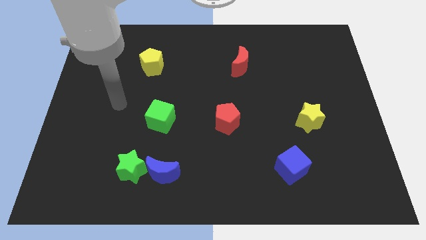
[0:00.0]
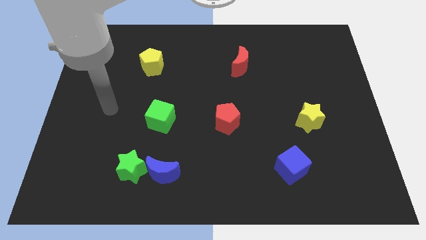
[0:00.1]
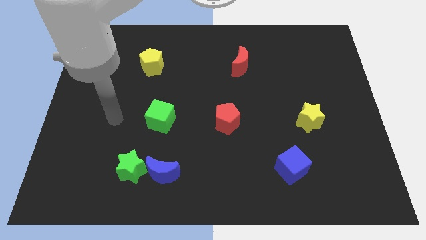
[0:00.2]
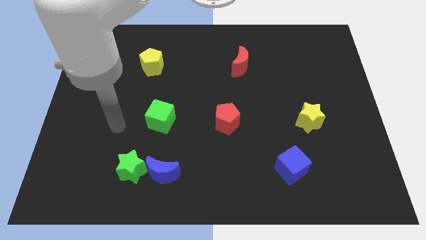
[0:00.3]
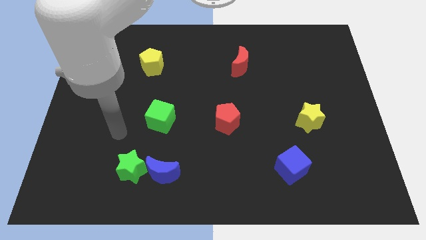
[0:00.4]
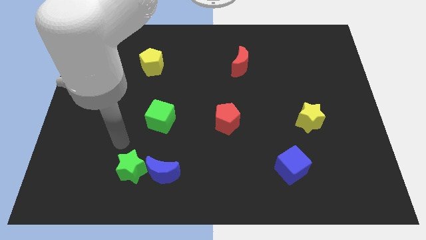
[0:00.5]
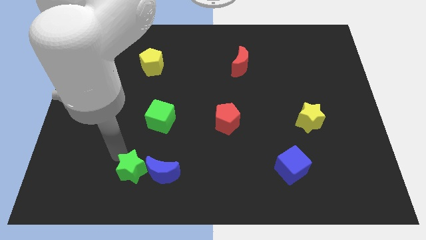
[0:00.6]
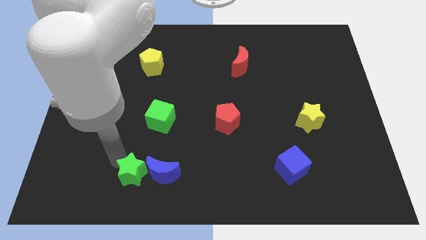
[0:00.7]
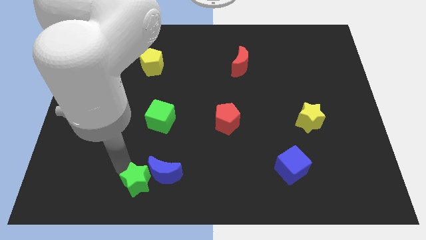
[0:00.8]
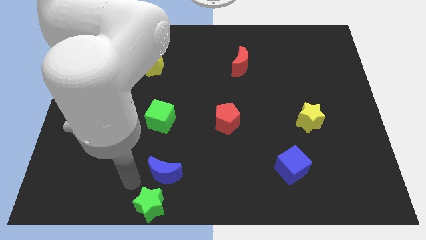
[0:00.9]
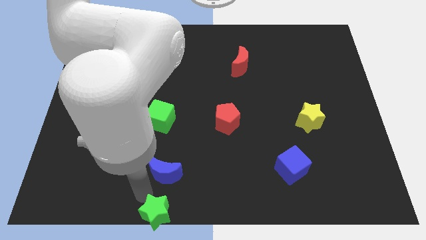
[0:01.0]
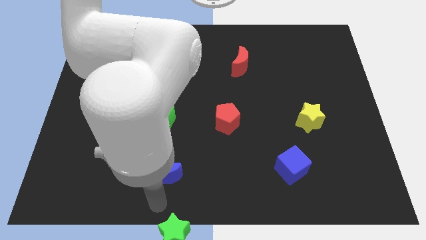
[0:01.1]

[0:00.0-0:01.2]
pull the blue moon apart from the green star

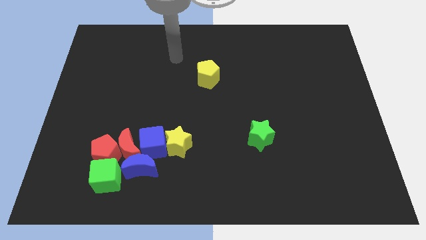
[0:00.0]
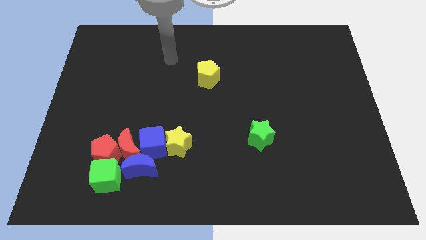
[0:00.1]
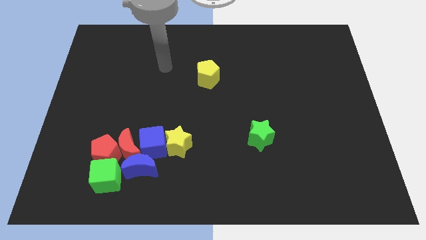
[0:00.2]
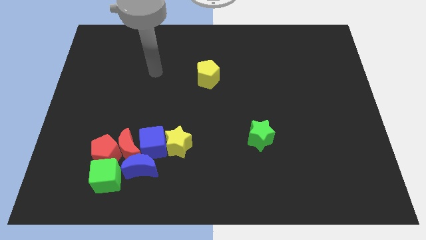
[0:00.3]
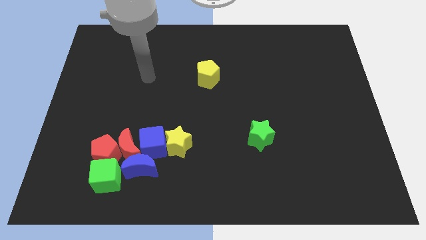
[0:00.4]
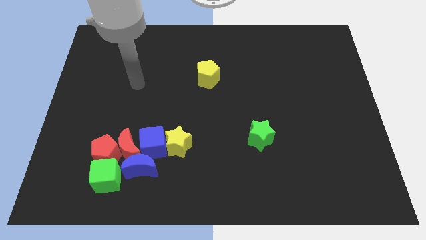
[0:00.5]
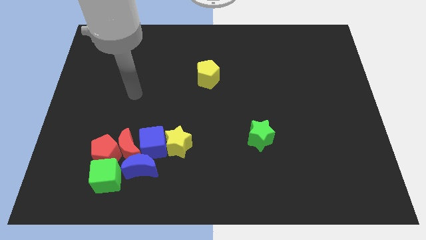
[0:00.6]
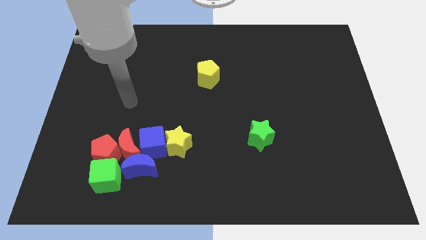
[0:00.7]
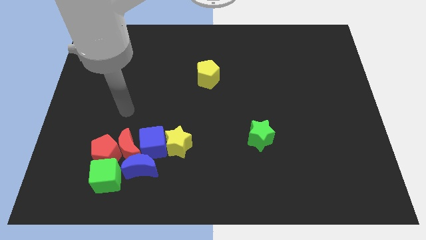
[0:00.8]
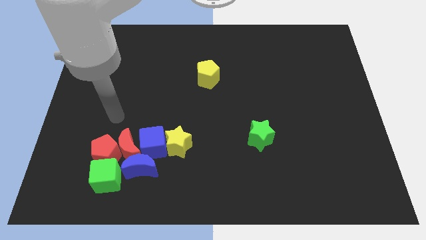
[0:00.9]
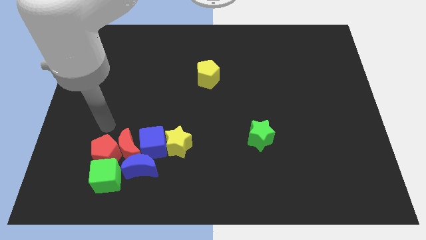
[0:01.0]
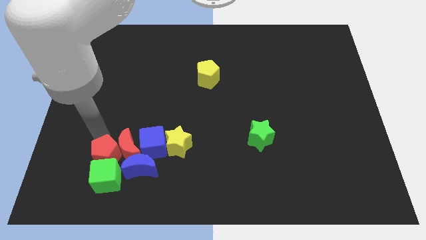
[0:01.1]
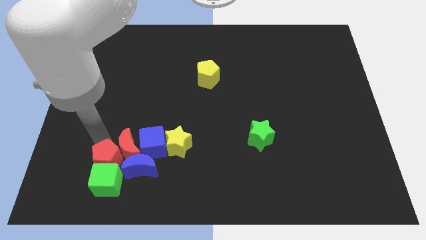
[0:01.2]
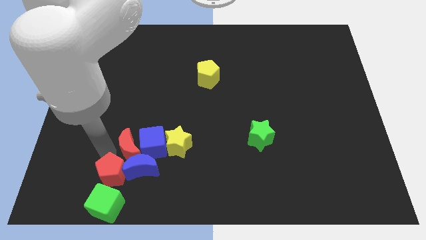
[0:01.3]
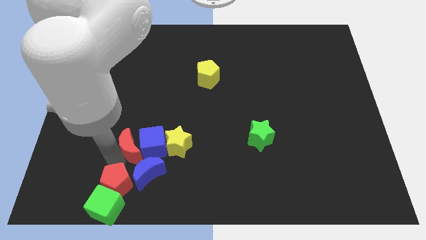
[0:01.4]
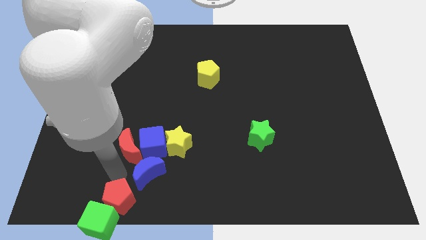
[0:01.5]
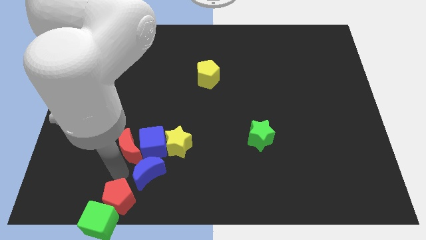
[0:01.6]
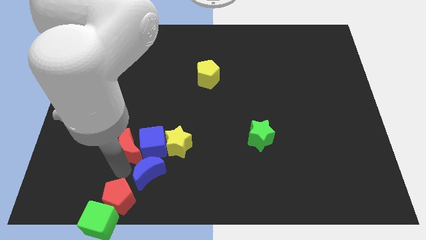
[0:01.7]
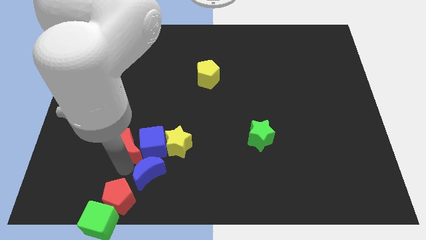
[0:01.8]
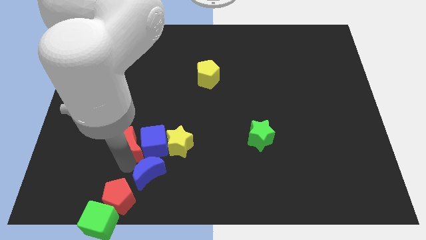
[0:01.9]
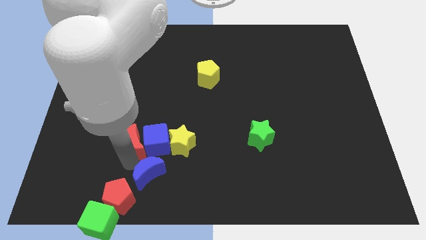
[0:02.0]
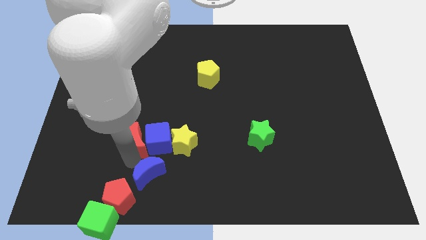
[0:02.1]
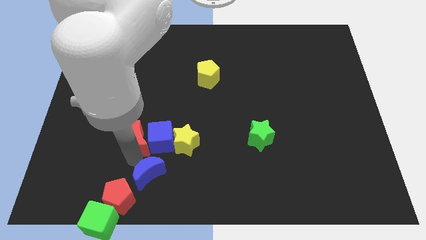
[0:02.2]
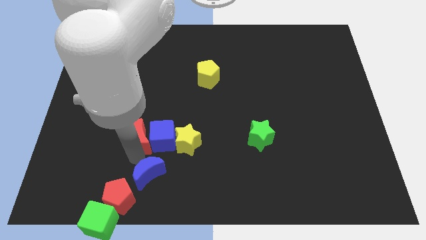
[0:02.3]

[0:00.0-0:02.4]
pull the red moon apart from the group

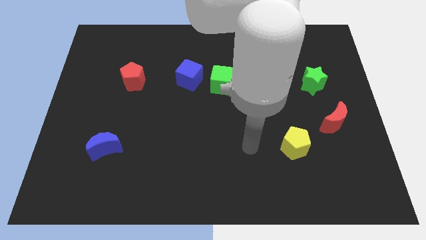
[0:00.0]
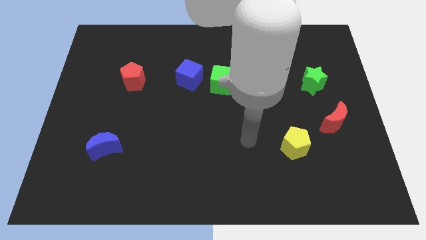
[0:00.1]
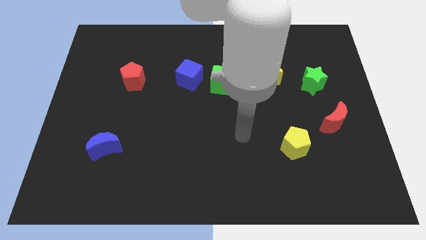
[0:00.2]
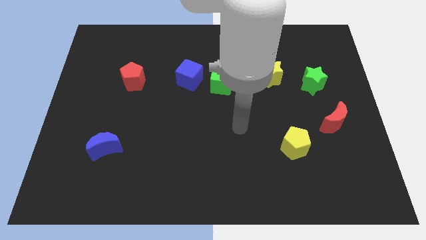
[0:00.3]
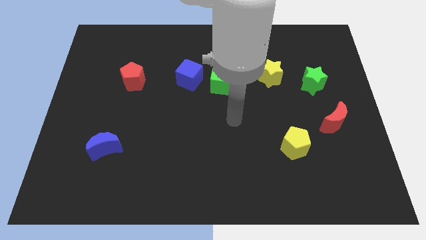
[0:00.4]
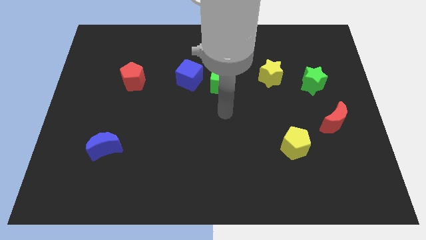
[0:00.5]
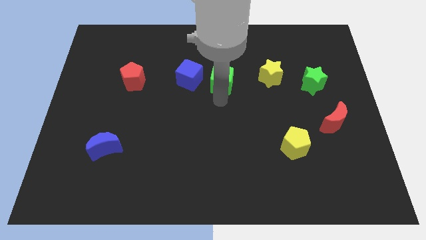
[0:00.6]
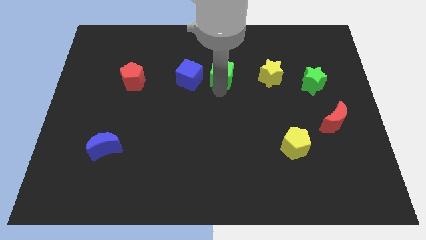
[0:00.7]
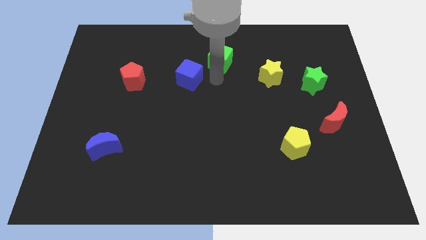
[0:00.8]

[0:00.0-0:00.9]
pull the blue cube apart from the green cube

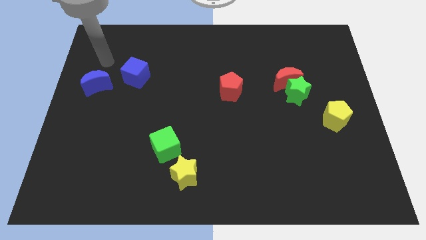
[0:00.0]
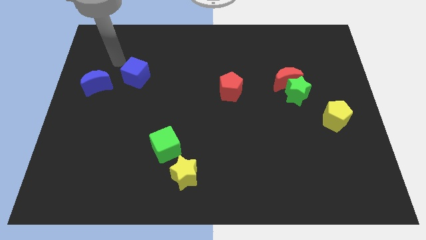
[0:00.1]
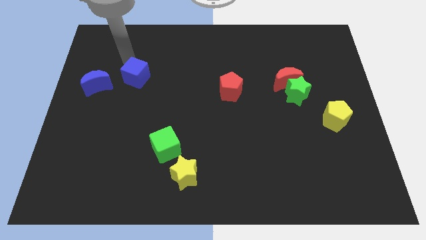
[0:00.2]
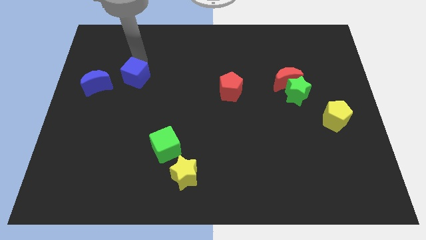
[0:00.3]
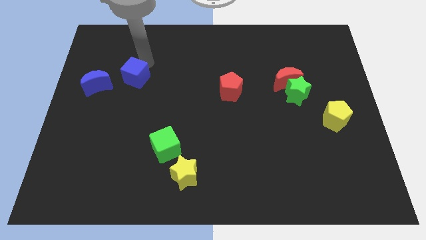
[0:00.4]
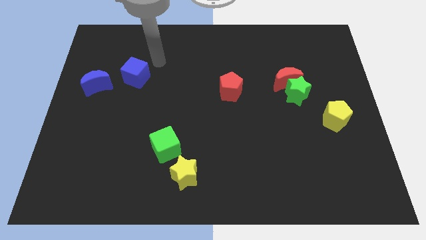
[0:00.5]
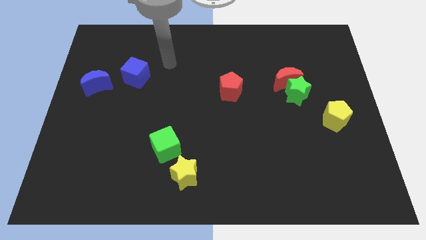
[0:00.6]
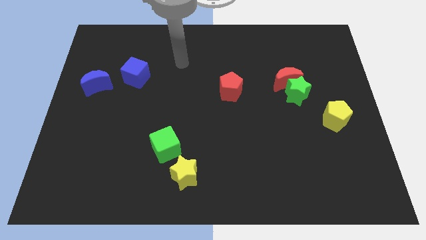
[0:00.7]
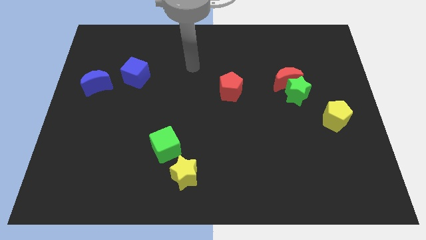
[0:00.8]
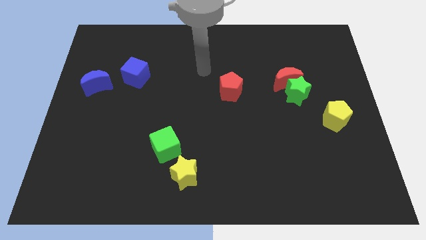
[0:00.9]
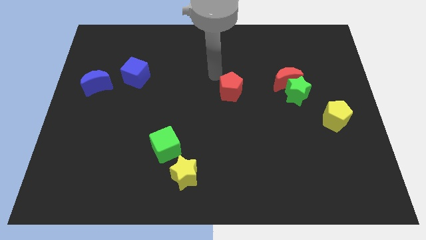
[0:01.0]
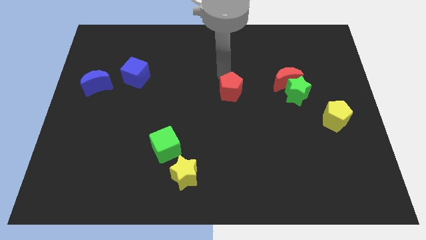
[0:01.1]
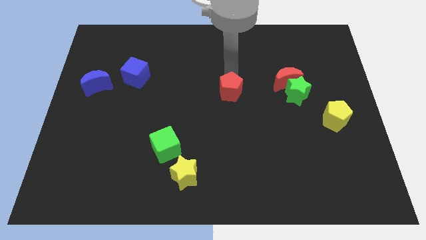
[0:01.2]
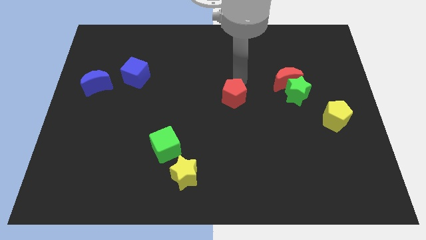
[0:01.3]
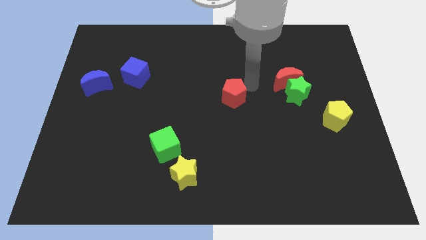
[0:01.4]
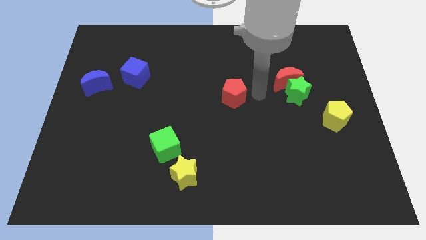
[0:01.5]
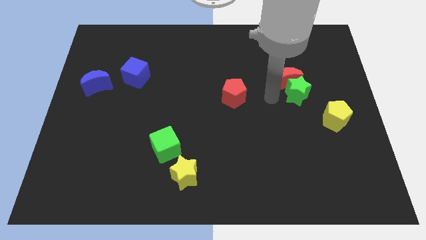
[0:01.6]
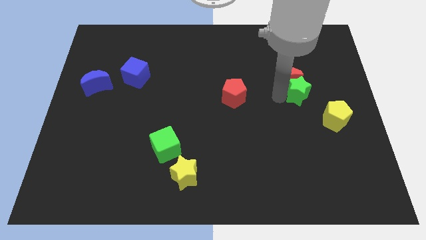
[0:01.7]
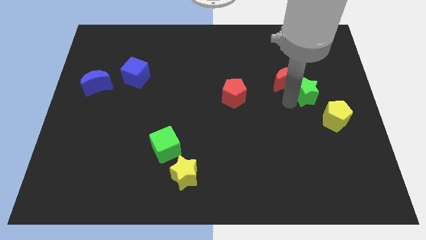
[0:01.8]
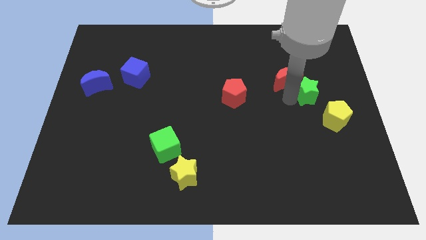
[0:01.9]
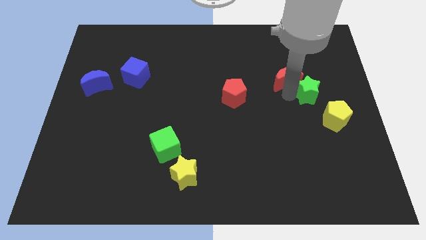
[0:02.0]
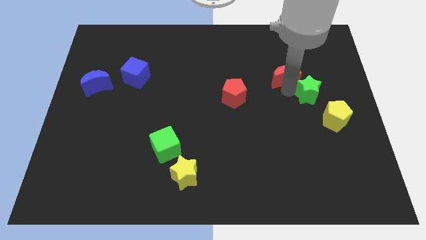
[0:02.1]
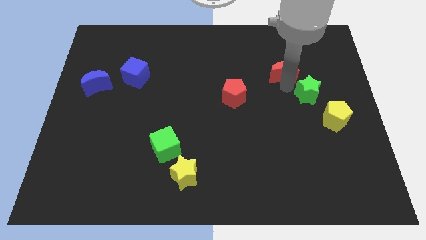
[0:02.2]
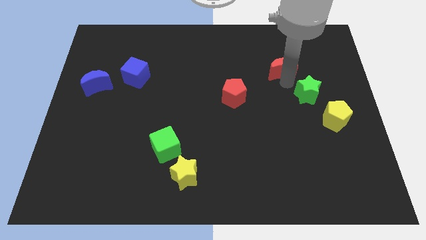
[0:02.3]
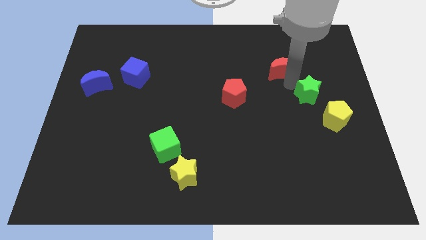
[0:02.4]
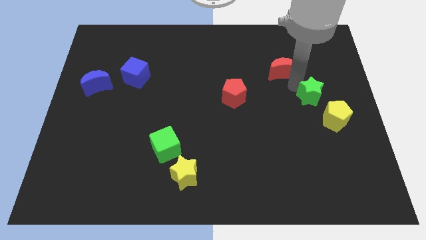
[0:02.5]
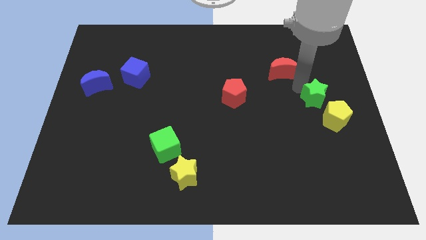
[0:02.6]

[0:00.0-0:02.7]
separate the red moon from the green star

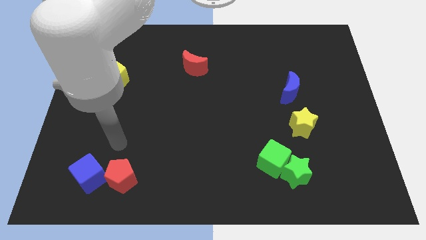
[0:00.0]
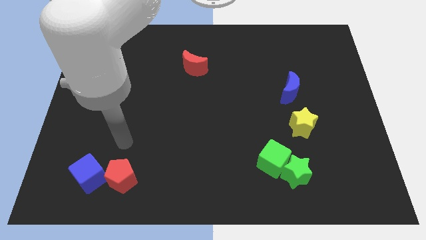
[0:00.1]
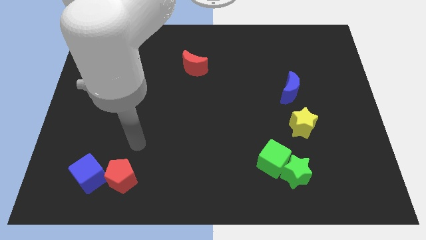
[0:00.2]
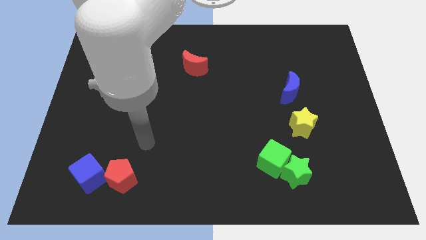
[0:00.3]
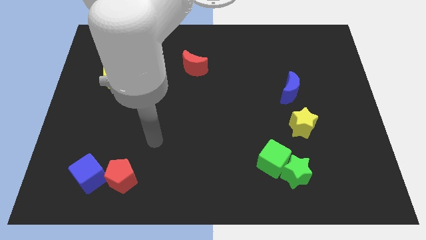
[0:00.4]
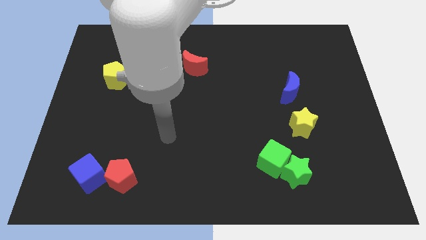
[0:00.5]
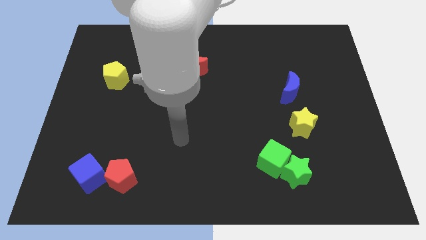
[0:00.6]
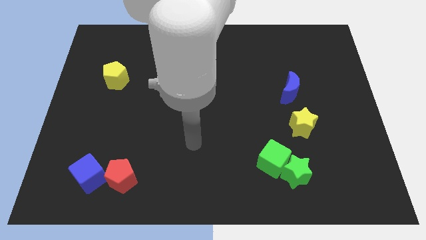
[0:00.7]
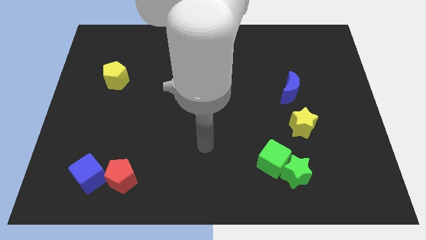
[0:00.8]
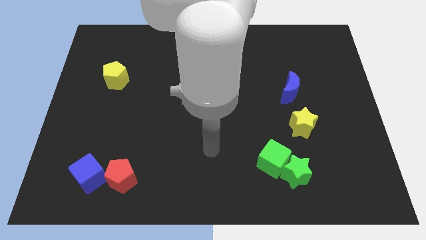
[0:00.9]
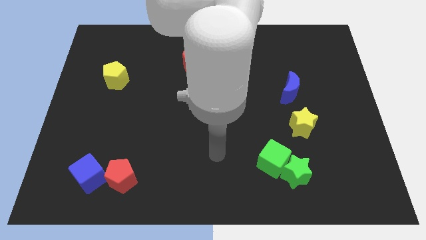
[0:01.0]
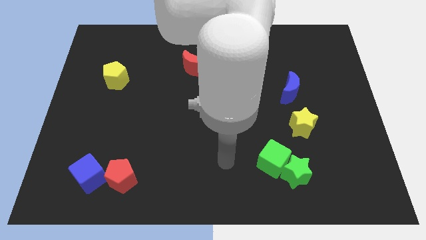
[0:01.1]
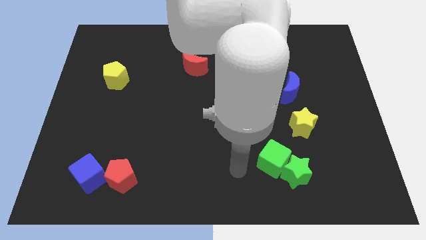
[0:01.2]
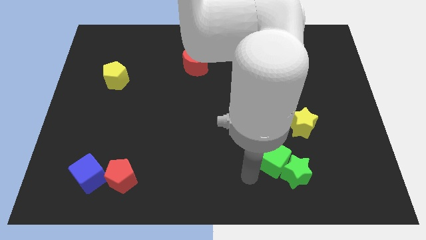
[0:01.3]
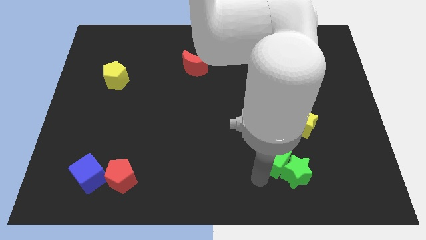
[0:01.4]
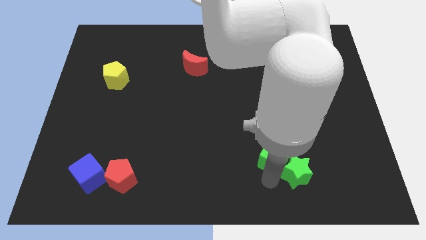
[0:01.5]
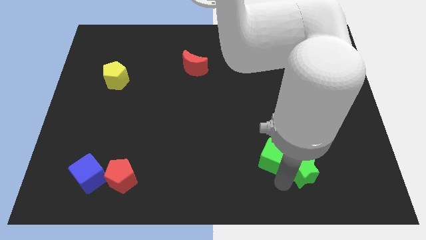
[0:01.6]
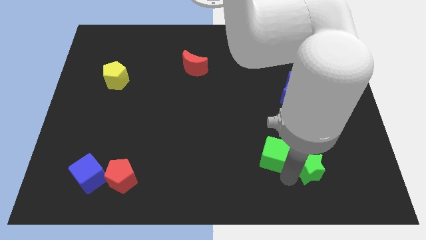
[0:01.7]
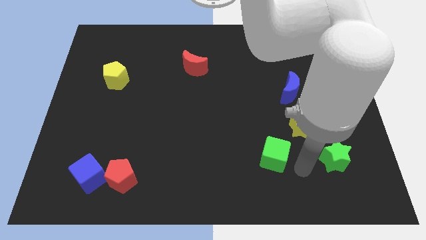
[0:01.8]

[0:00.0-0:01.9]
move the green cube away from the green star

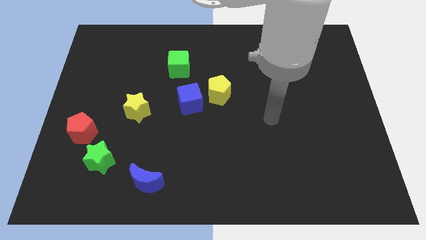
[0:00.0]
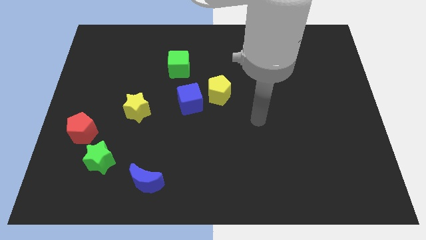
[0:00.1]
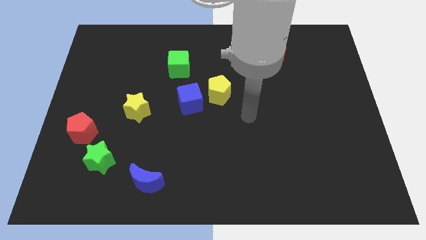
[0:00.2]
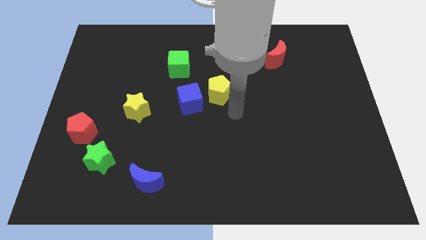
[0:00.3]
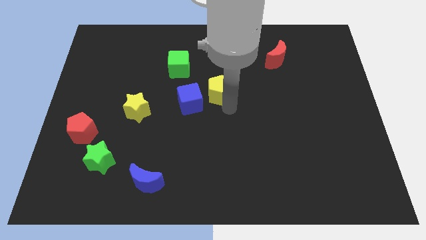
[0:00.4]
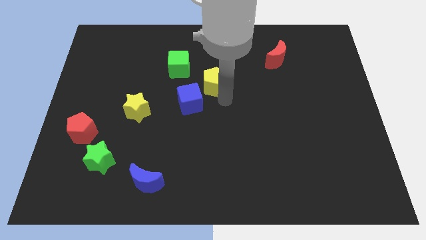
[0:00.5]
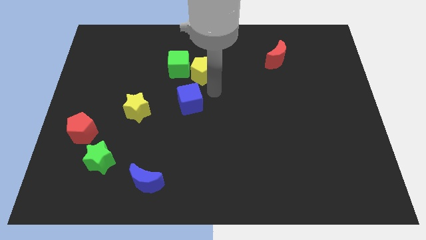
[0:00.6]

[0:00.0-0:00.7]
move the blue cube away from the yellow pentagon
